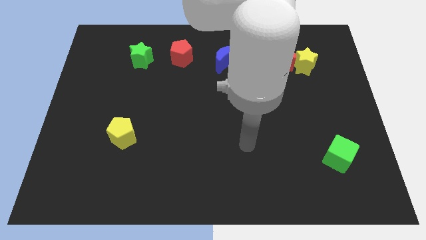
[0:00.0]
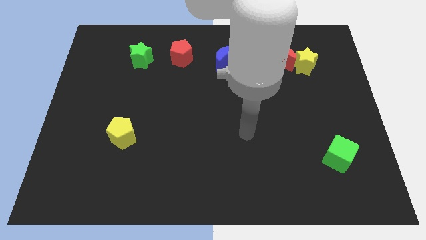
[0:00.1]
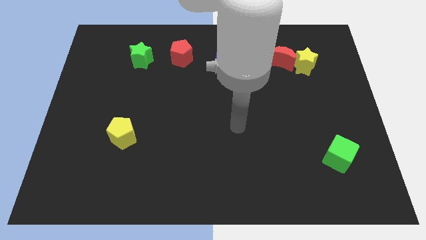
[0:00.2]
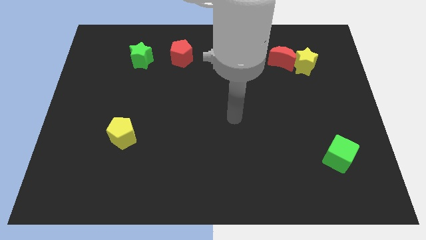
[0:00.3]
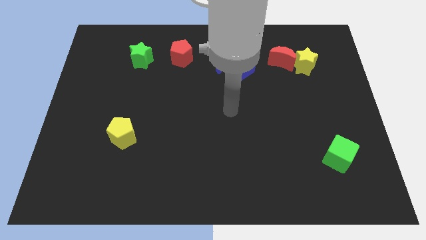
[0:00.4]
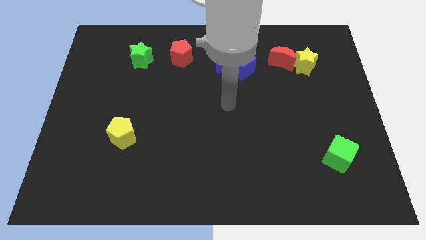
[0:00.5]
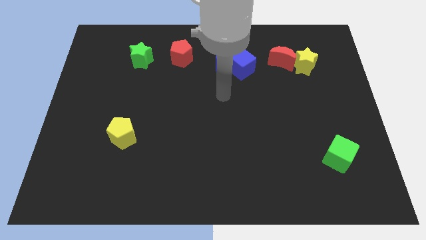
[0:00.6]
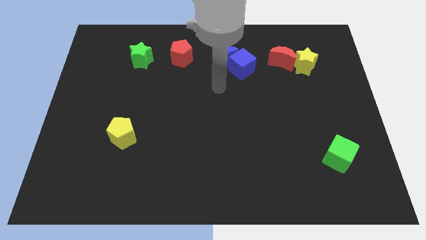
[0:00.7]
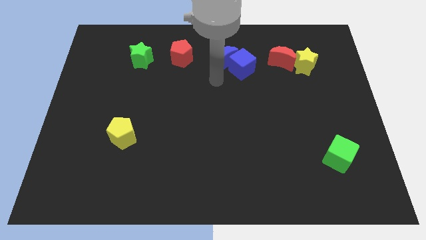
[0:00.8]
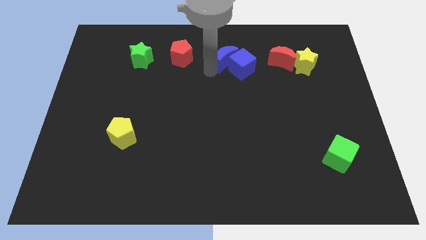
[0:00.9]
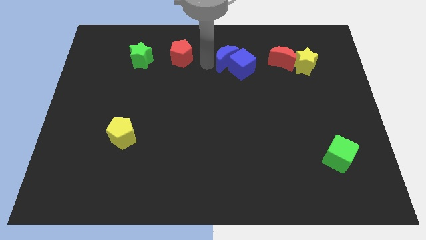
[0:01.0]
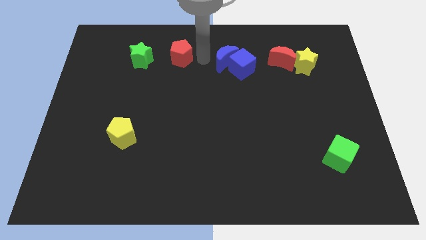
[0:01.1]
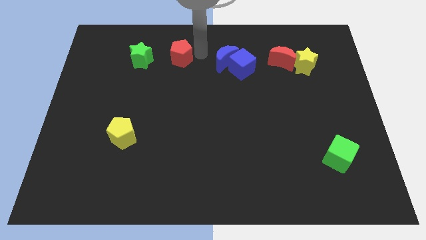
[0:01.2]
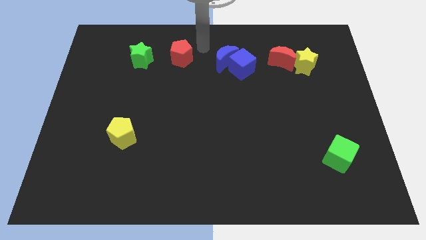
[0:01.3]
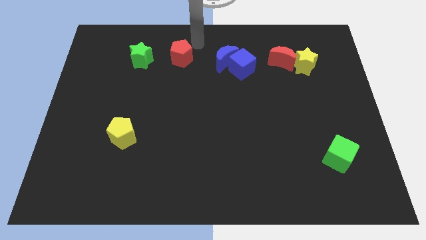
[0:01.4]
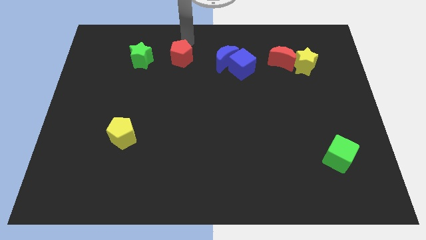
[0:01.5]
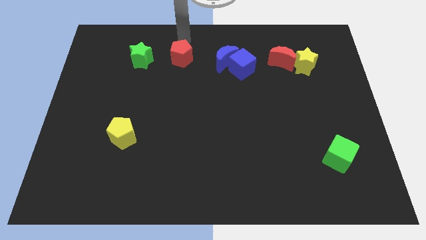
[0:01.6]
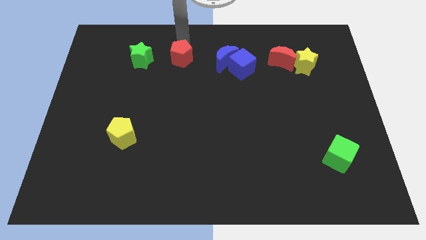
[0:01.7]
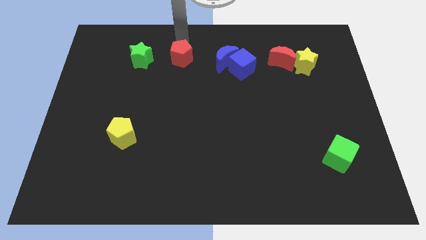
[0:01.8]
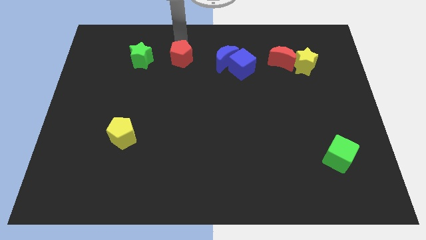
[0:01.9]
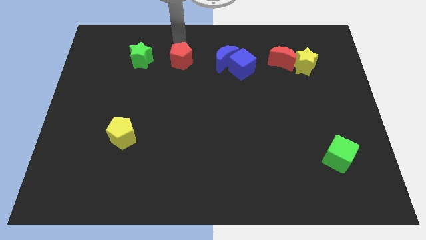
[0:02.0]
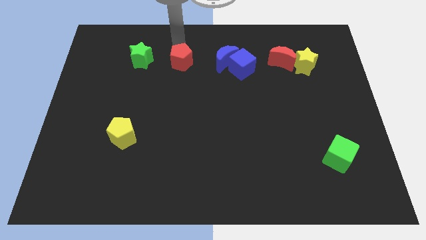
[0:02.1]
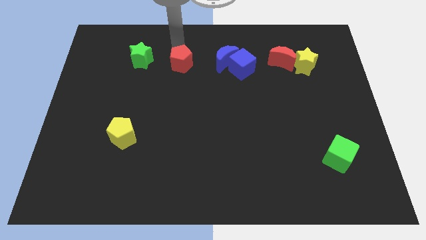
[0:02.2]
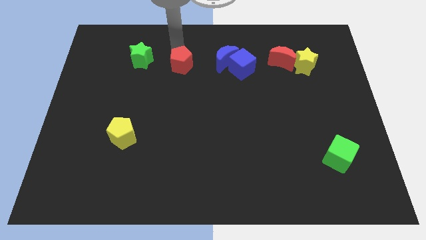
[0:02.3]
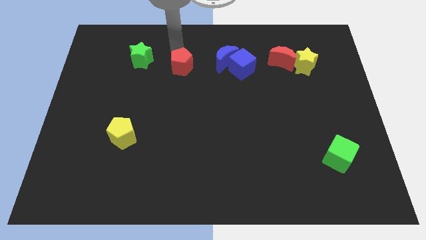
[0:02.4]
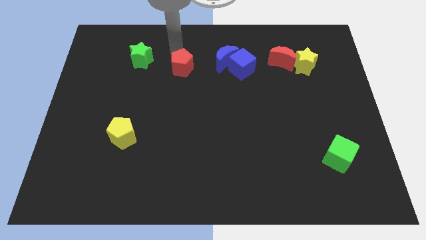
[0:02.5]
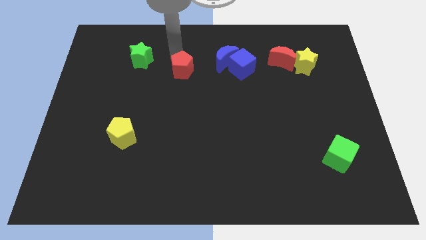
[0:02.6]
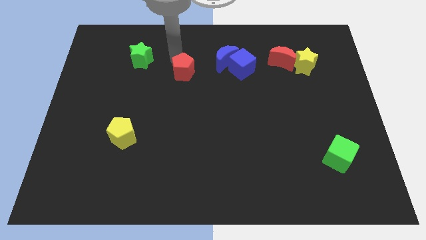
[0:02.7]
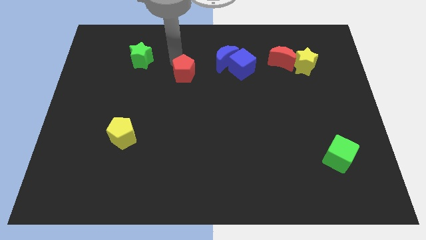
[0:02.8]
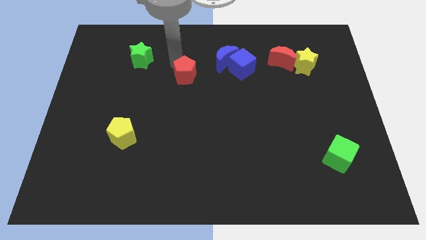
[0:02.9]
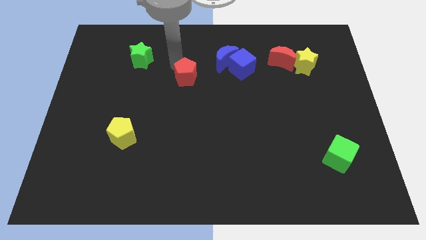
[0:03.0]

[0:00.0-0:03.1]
slightly slide the red pentagon downwards

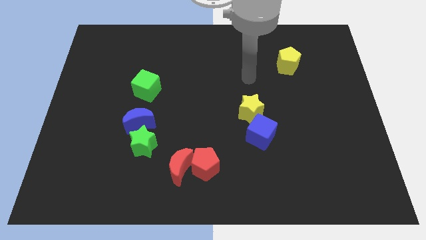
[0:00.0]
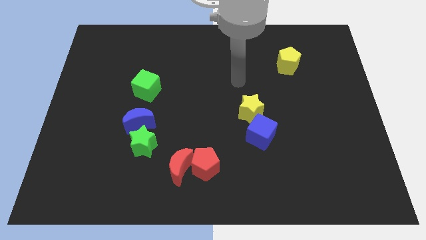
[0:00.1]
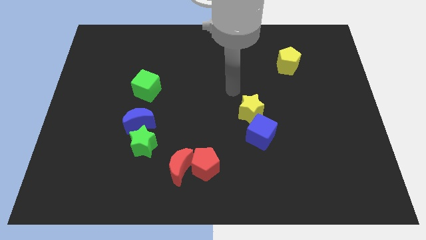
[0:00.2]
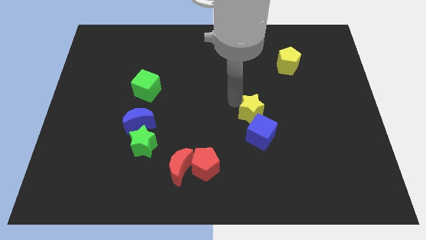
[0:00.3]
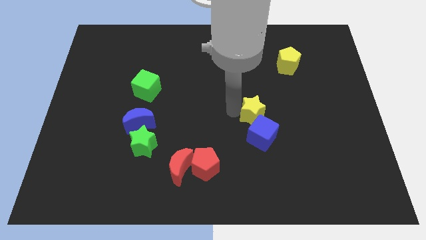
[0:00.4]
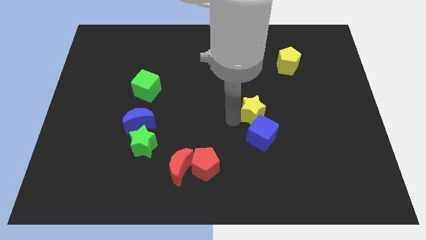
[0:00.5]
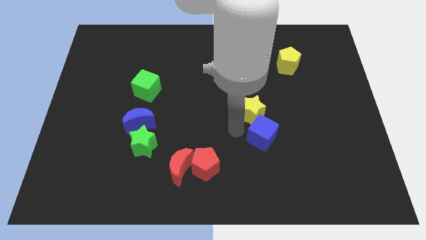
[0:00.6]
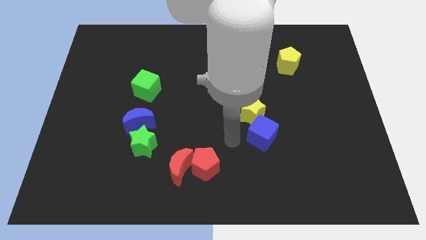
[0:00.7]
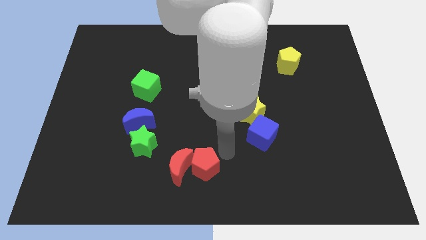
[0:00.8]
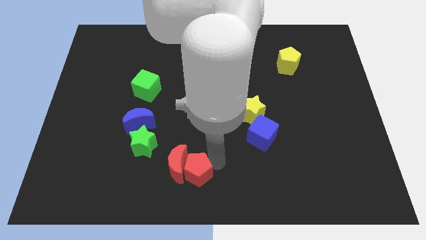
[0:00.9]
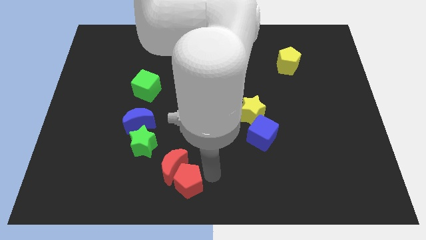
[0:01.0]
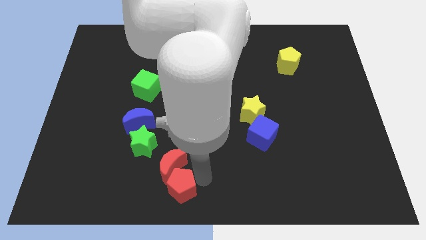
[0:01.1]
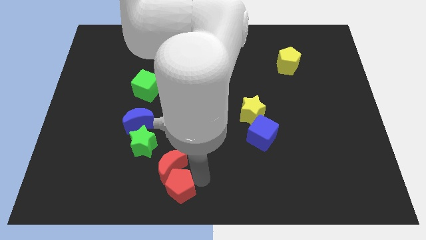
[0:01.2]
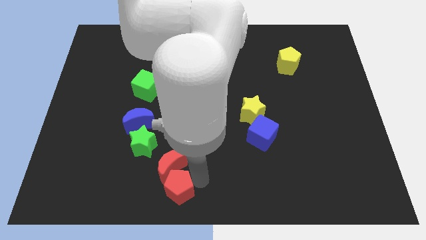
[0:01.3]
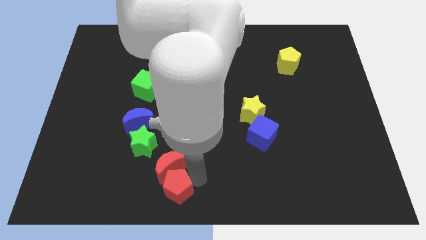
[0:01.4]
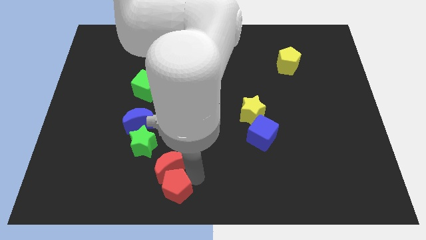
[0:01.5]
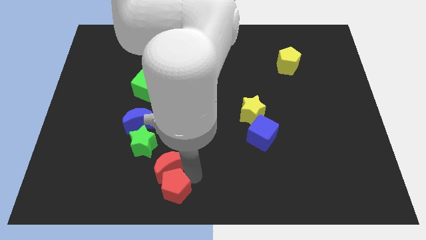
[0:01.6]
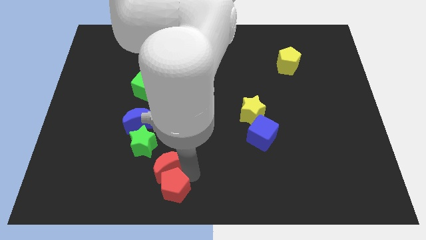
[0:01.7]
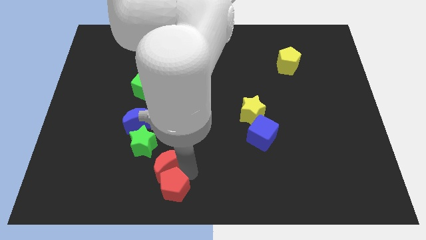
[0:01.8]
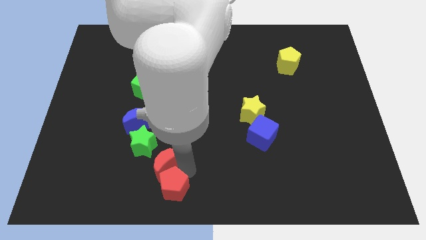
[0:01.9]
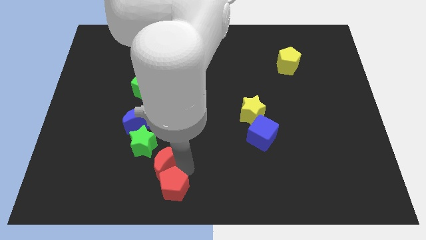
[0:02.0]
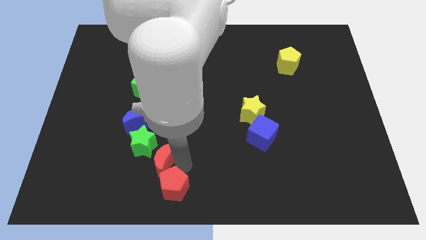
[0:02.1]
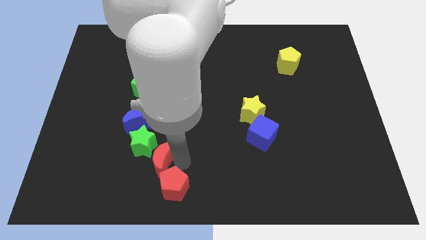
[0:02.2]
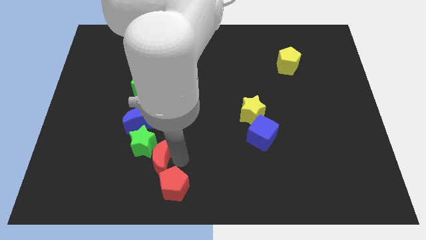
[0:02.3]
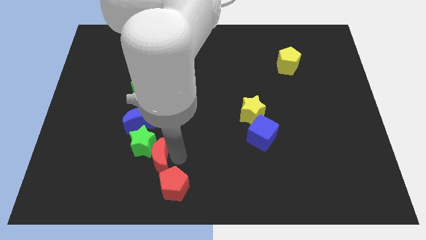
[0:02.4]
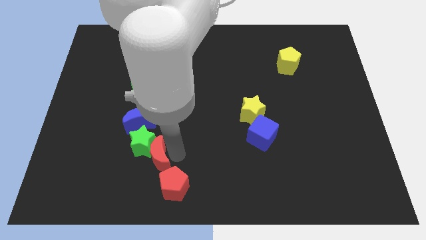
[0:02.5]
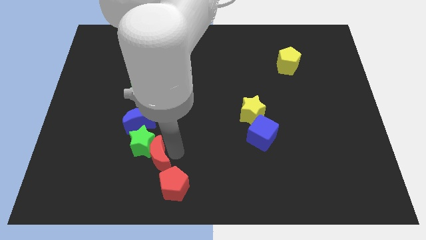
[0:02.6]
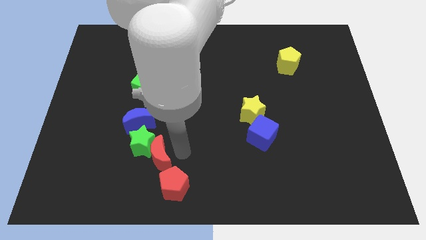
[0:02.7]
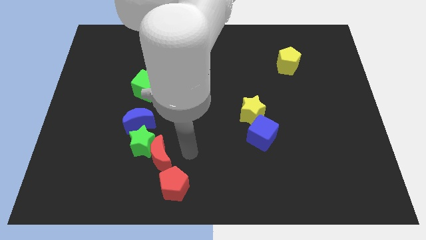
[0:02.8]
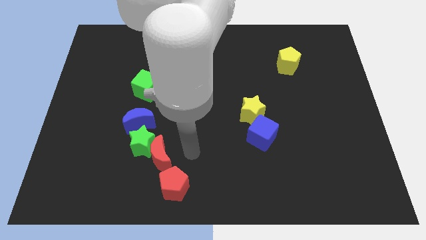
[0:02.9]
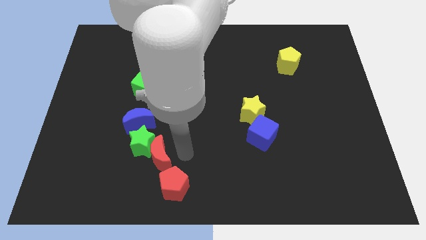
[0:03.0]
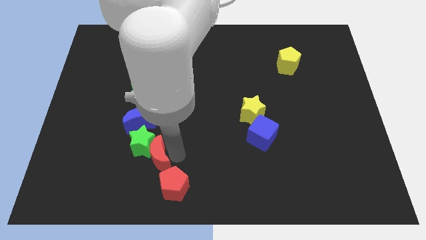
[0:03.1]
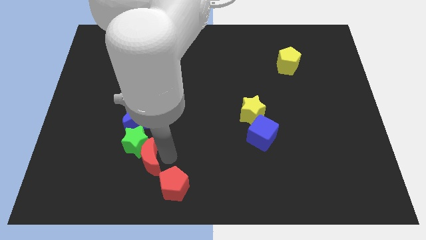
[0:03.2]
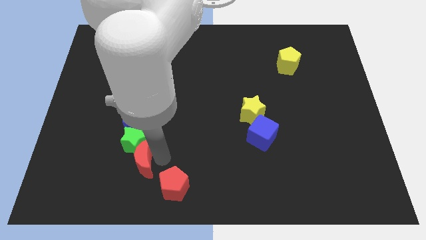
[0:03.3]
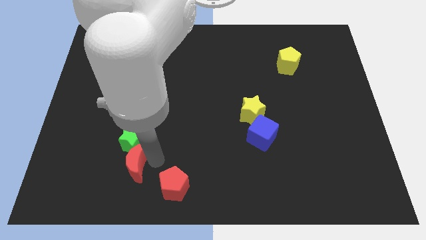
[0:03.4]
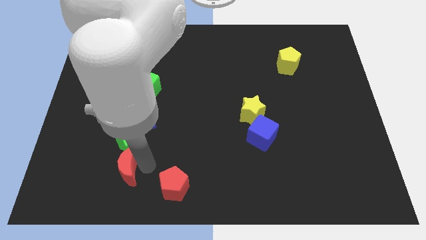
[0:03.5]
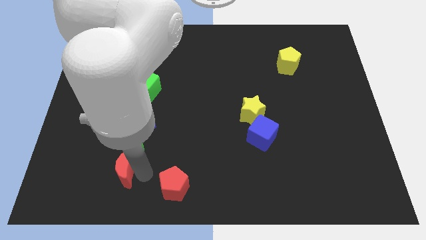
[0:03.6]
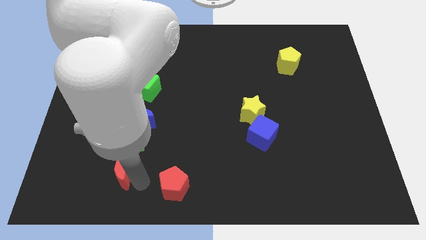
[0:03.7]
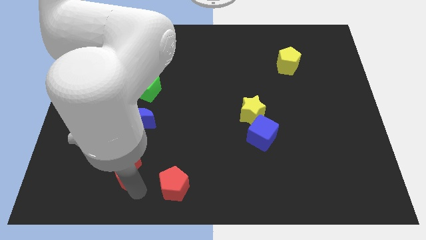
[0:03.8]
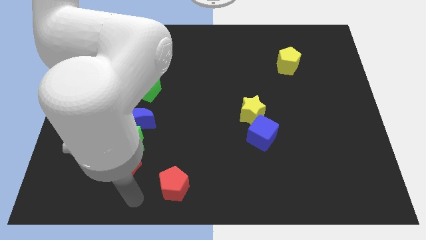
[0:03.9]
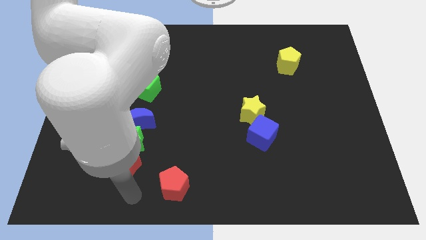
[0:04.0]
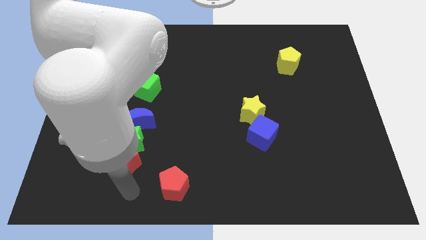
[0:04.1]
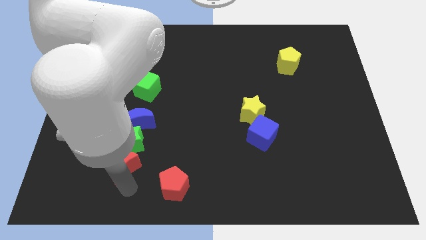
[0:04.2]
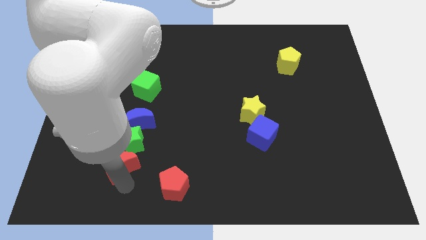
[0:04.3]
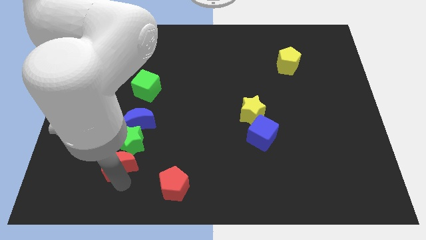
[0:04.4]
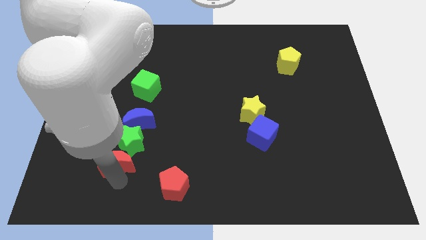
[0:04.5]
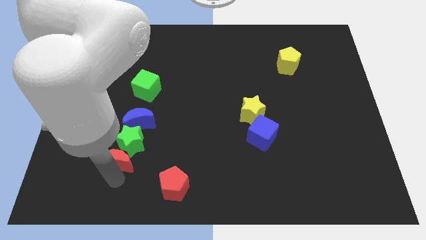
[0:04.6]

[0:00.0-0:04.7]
slightly slide the red moon diagonally upwards and to the left

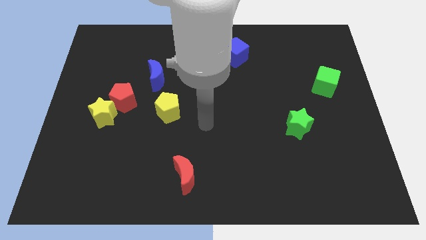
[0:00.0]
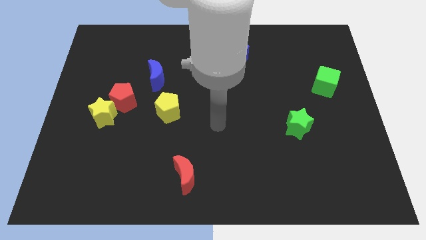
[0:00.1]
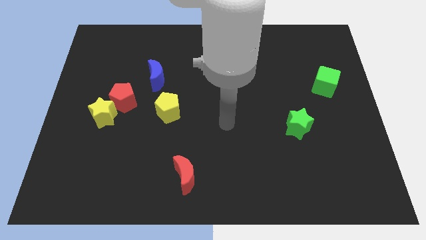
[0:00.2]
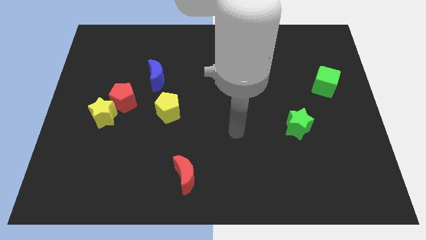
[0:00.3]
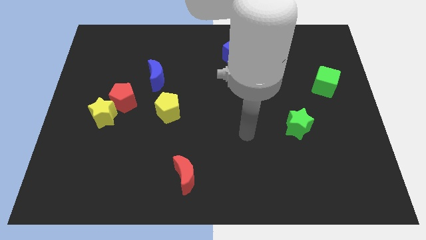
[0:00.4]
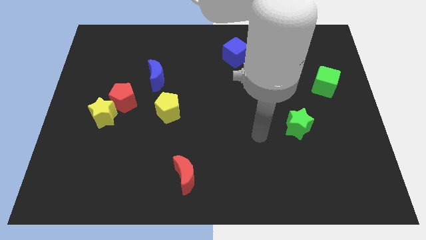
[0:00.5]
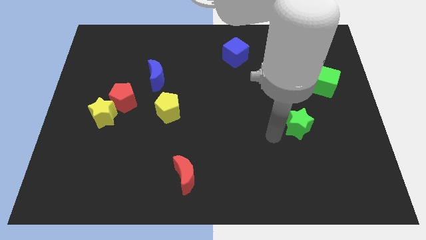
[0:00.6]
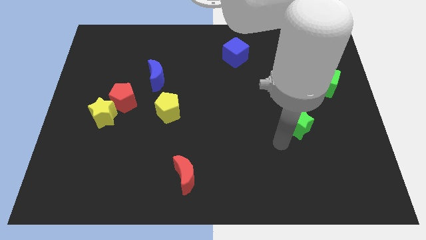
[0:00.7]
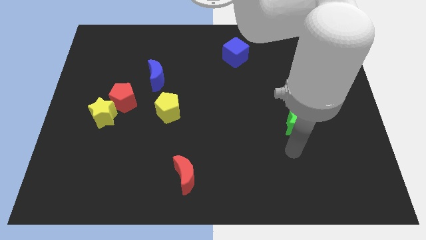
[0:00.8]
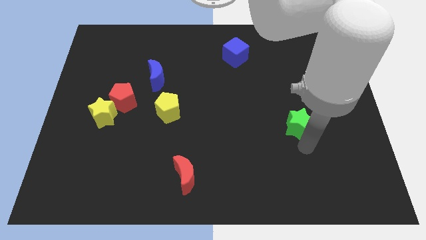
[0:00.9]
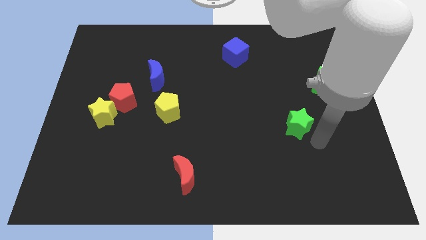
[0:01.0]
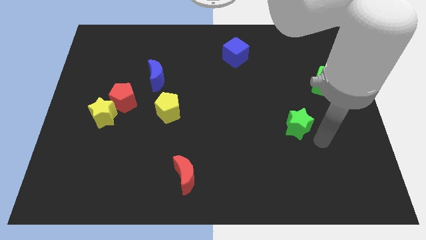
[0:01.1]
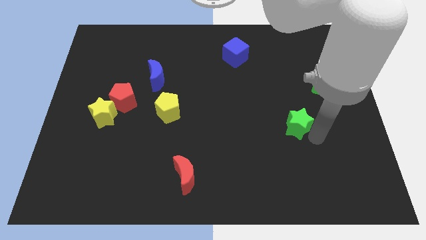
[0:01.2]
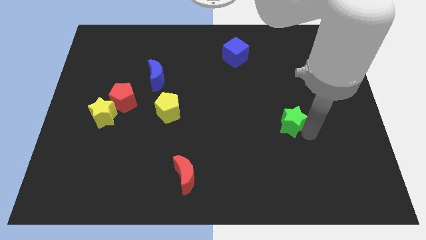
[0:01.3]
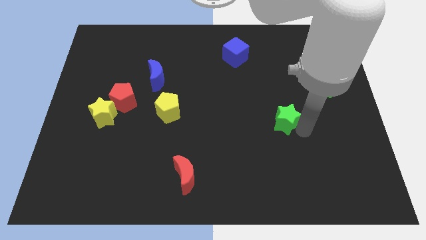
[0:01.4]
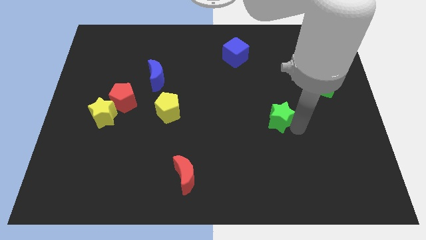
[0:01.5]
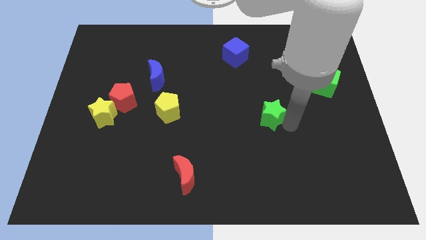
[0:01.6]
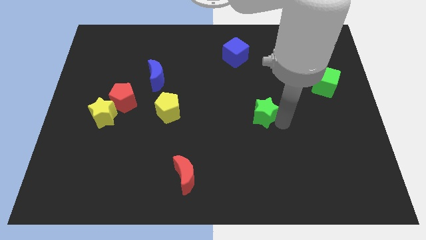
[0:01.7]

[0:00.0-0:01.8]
move the green star diagonally up and left somewhat
